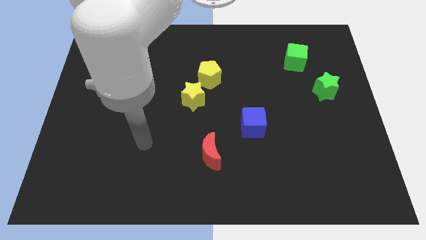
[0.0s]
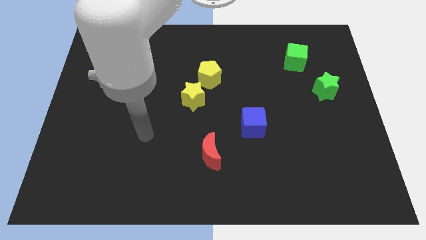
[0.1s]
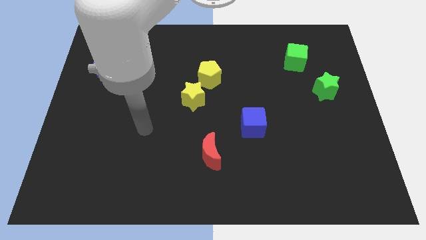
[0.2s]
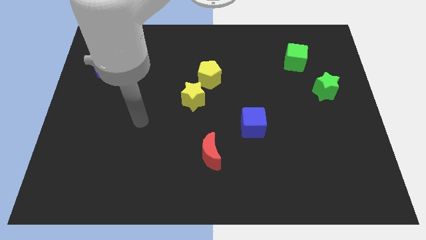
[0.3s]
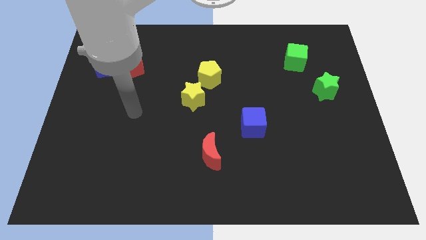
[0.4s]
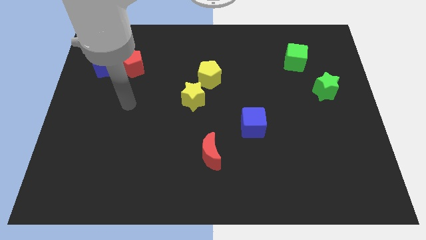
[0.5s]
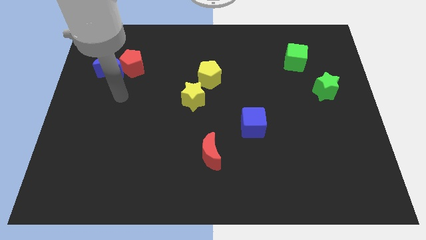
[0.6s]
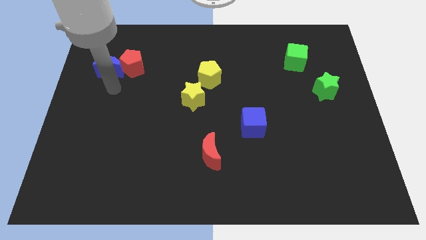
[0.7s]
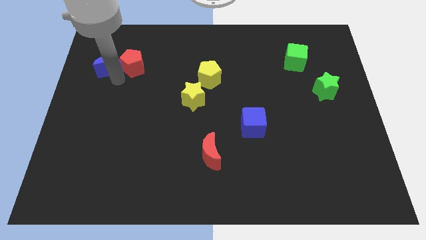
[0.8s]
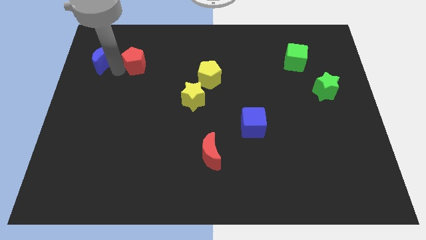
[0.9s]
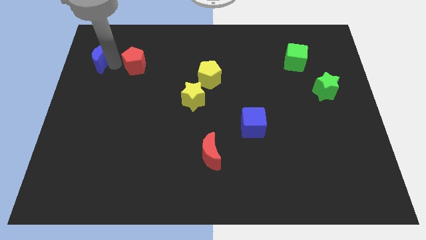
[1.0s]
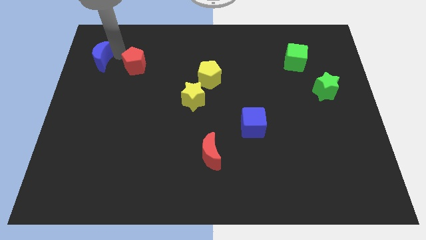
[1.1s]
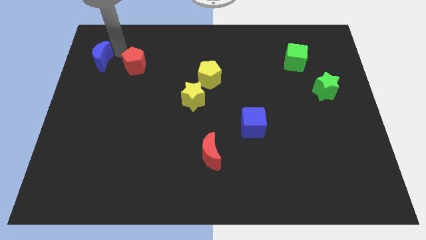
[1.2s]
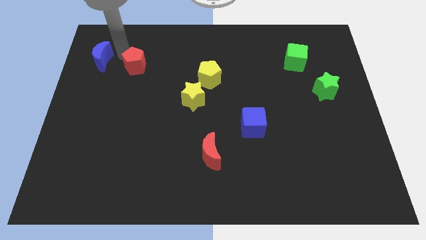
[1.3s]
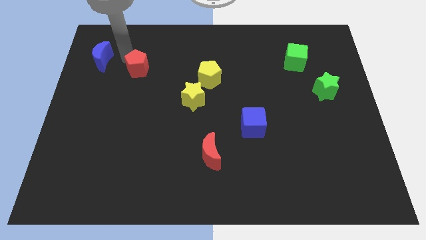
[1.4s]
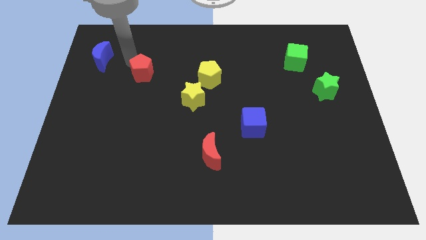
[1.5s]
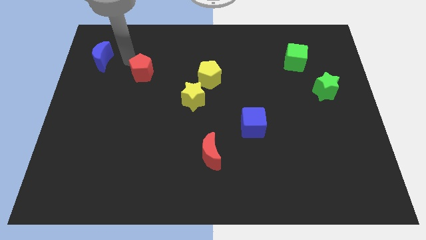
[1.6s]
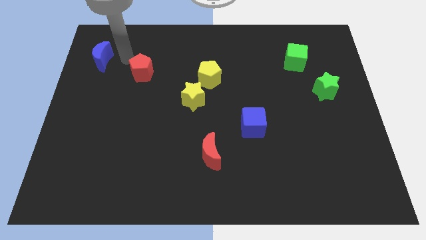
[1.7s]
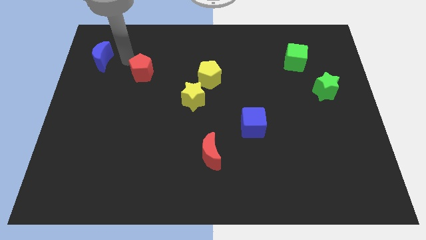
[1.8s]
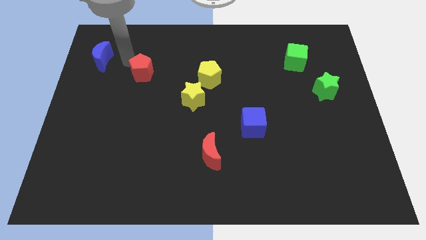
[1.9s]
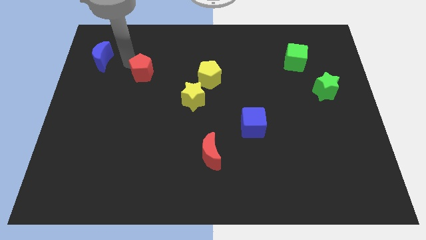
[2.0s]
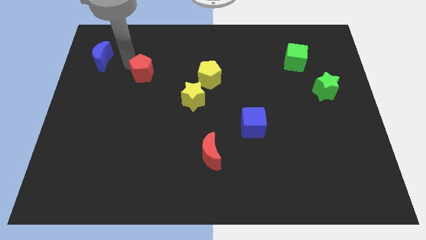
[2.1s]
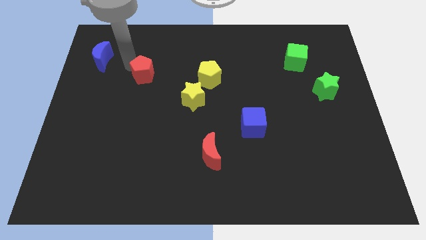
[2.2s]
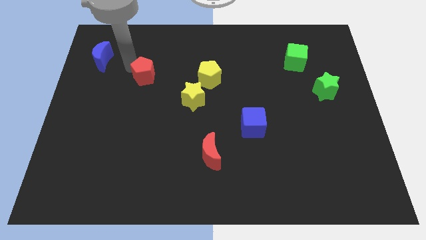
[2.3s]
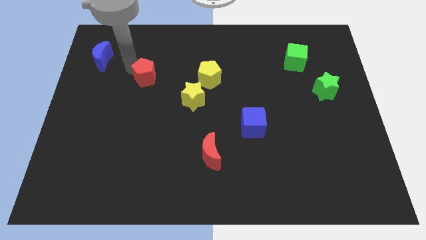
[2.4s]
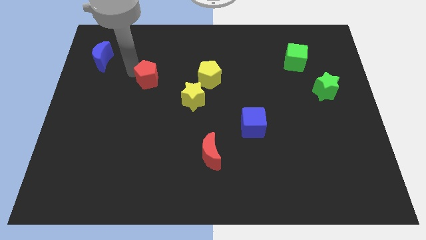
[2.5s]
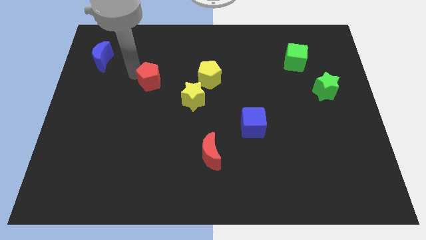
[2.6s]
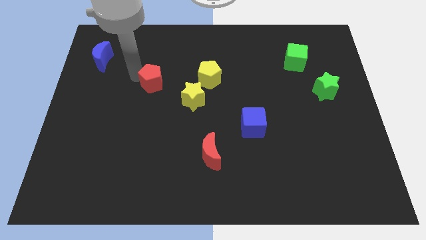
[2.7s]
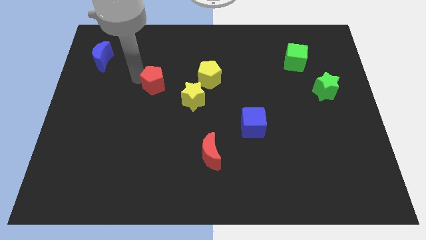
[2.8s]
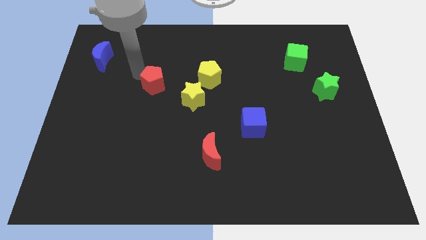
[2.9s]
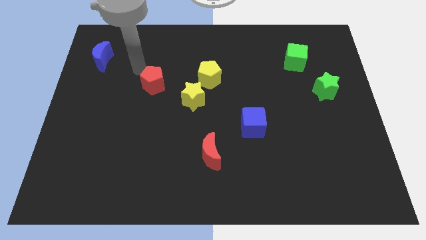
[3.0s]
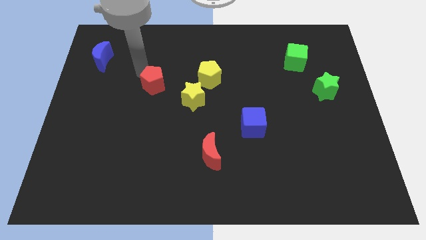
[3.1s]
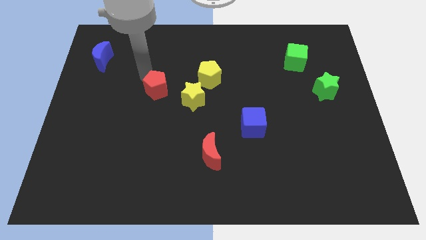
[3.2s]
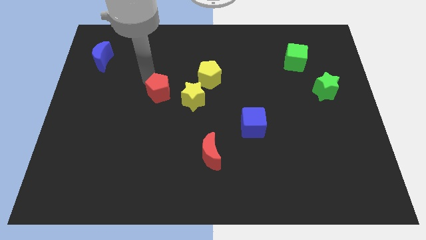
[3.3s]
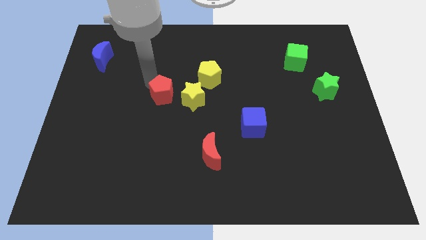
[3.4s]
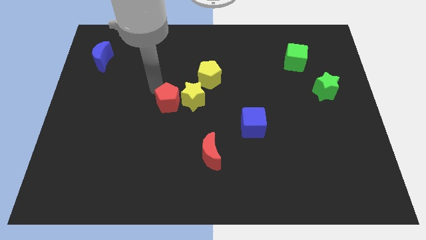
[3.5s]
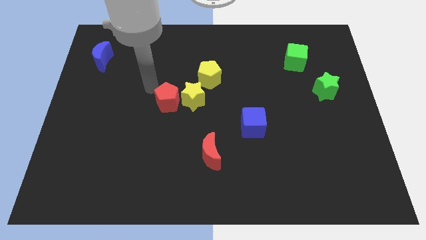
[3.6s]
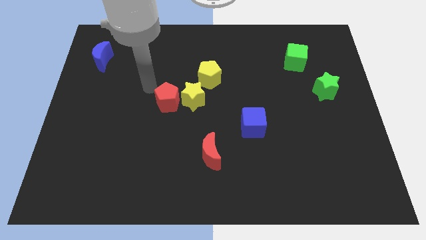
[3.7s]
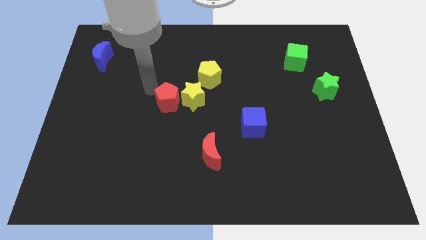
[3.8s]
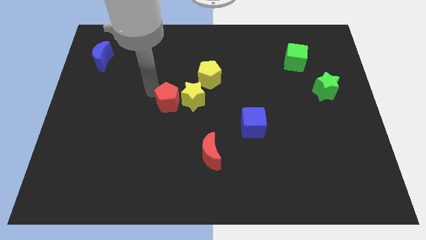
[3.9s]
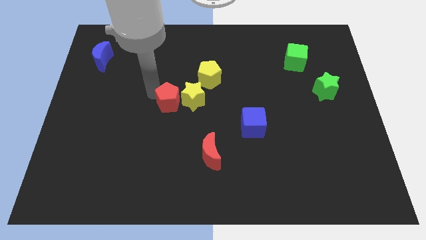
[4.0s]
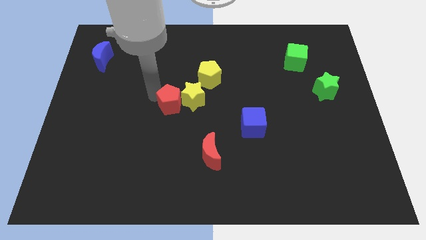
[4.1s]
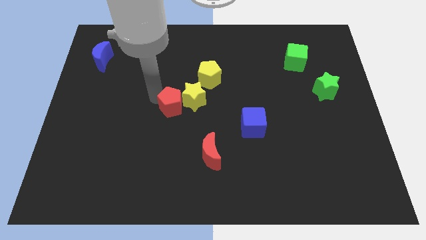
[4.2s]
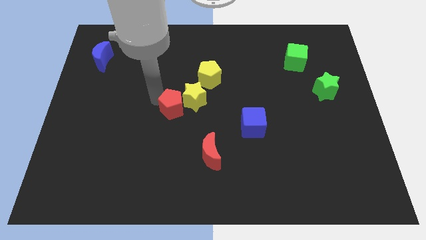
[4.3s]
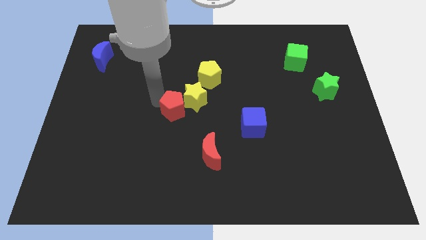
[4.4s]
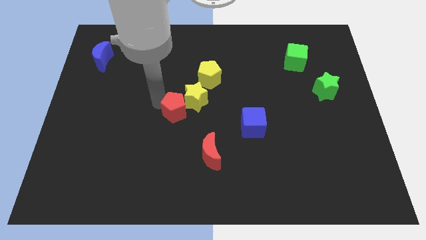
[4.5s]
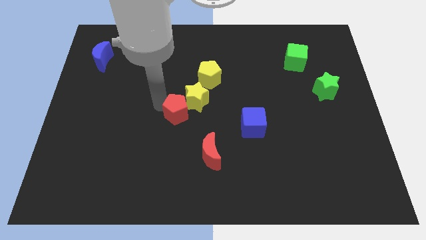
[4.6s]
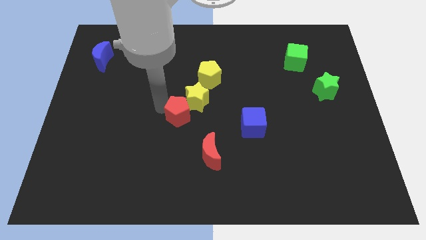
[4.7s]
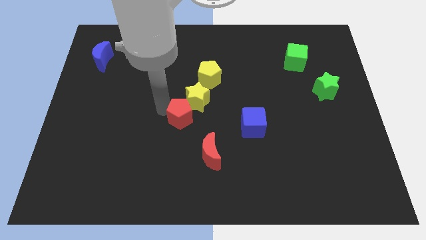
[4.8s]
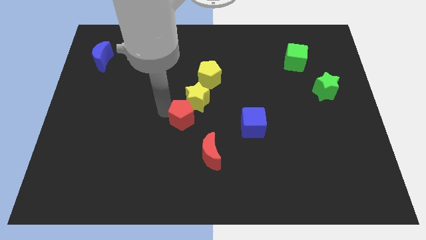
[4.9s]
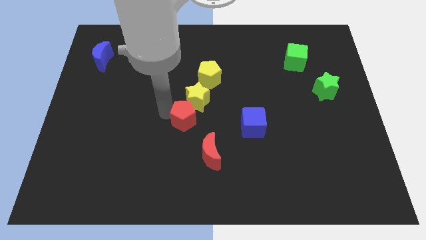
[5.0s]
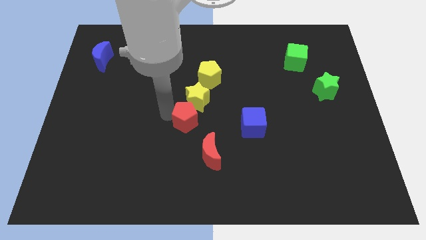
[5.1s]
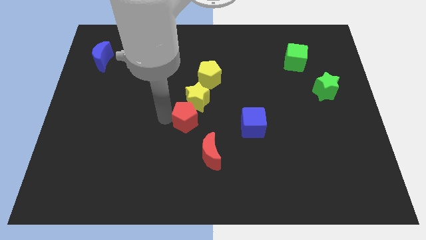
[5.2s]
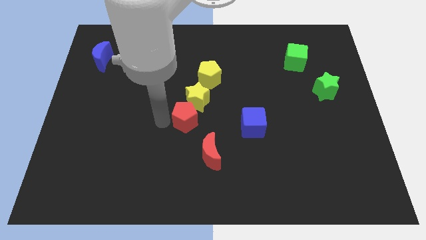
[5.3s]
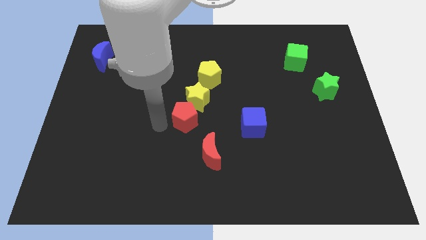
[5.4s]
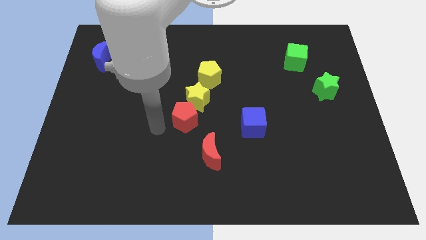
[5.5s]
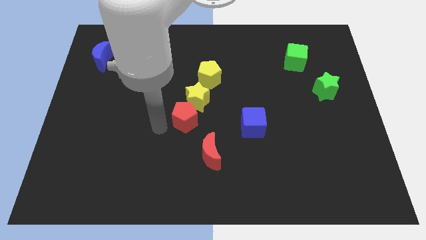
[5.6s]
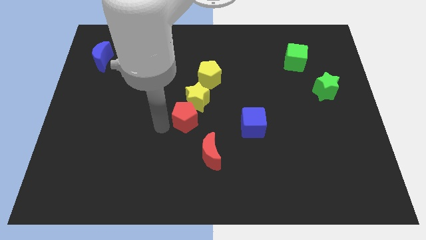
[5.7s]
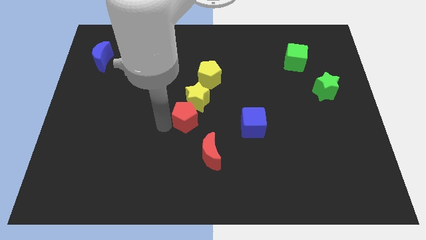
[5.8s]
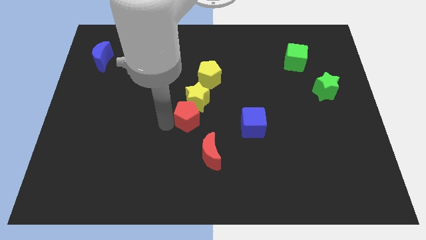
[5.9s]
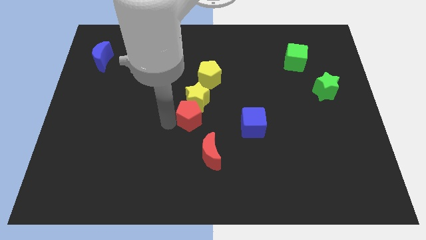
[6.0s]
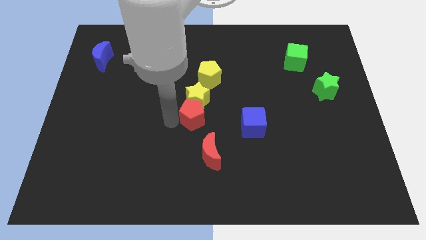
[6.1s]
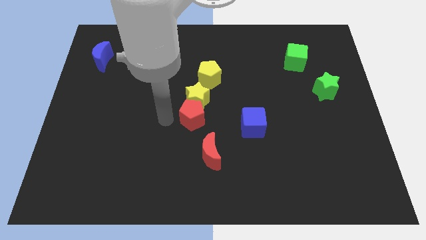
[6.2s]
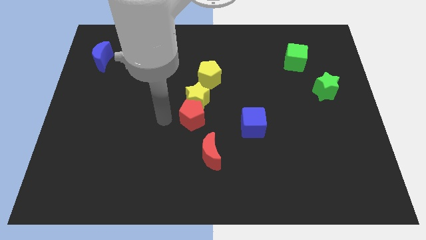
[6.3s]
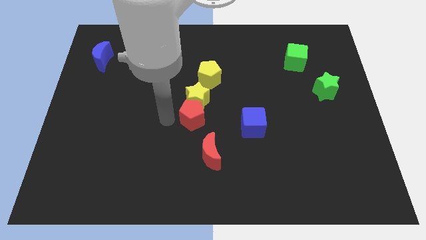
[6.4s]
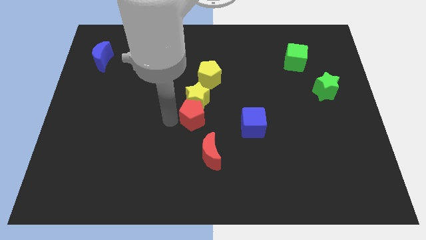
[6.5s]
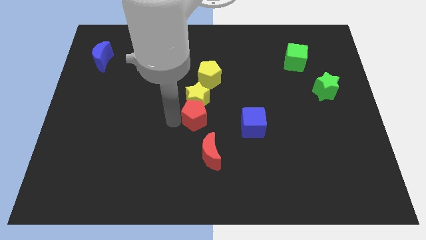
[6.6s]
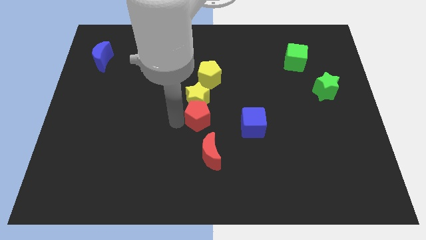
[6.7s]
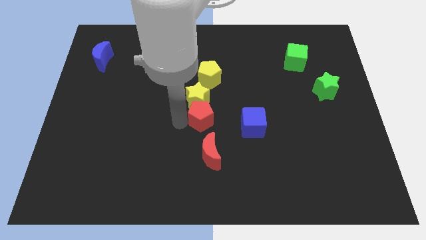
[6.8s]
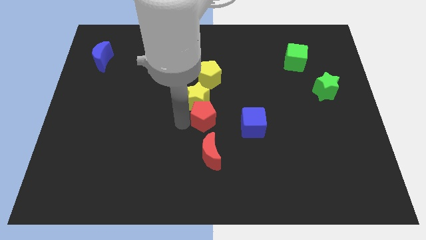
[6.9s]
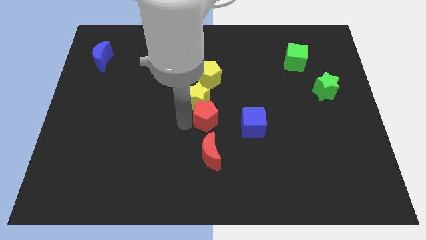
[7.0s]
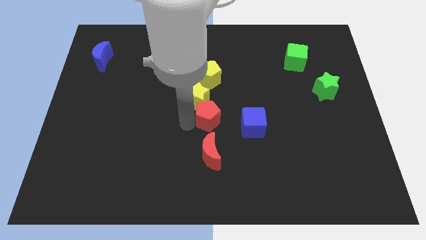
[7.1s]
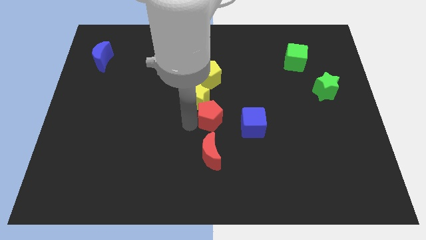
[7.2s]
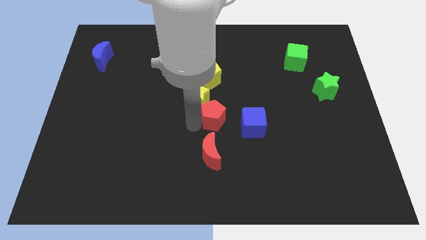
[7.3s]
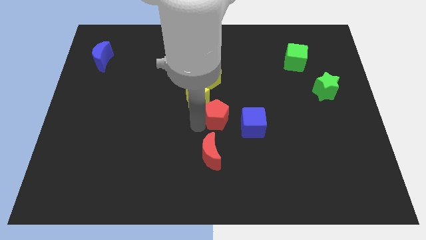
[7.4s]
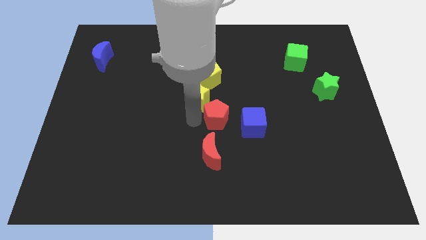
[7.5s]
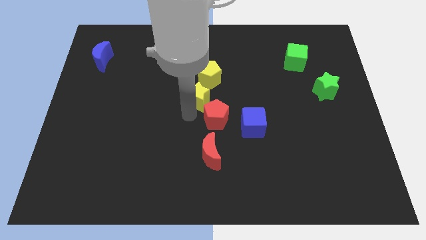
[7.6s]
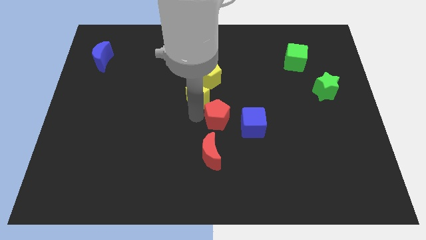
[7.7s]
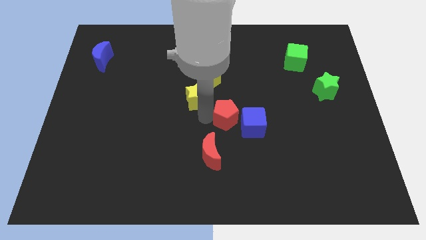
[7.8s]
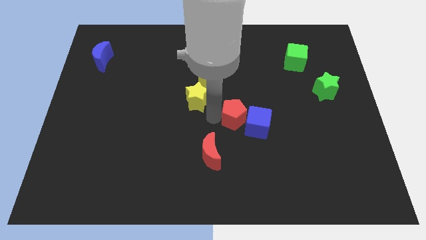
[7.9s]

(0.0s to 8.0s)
move the red pentagon close to the blue cube
